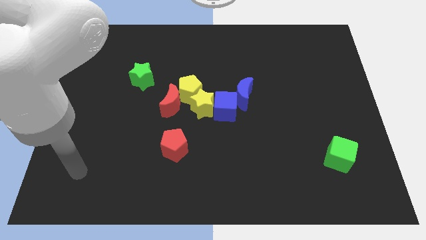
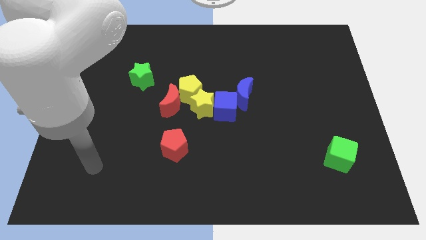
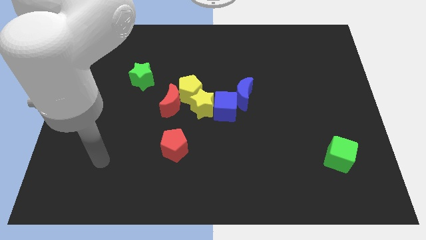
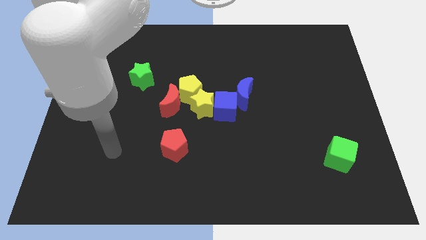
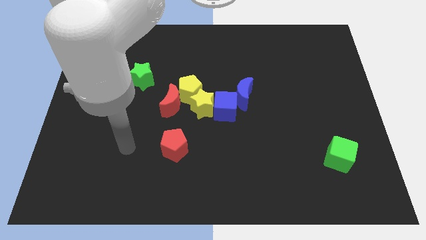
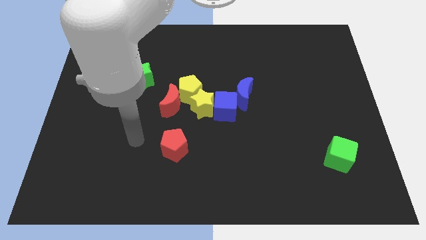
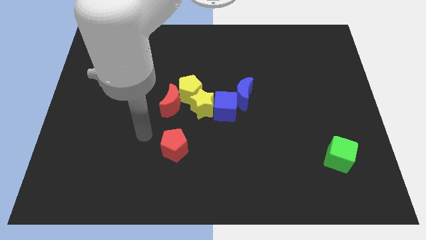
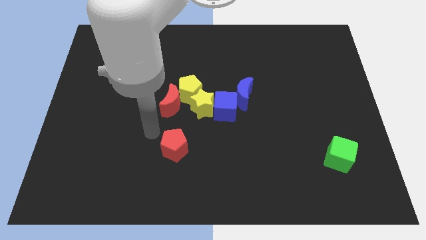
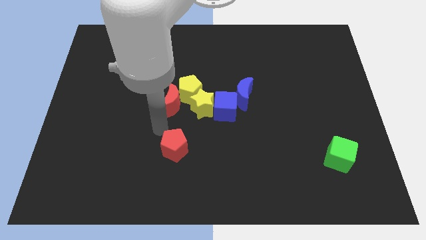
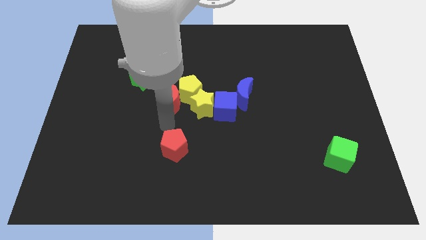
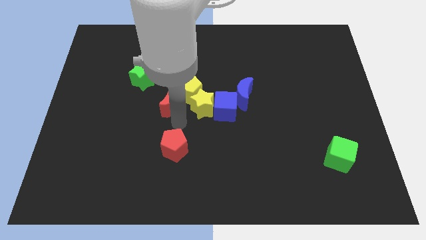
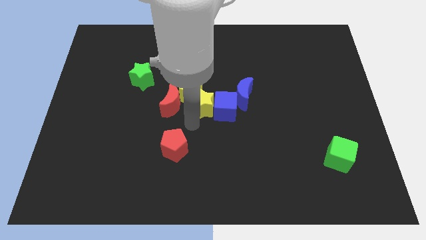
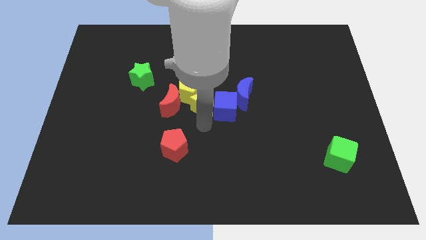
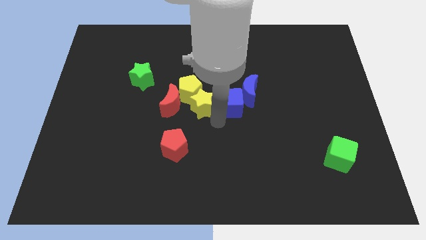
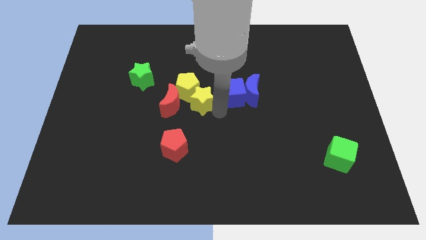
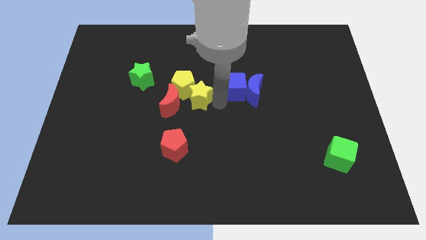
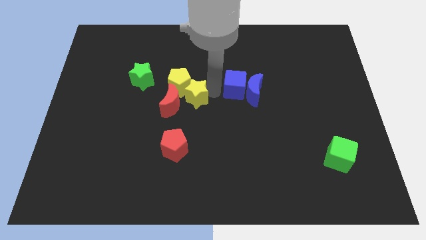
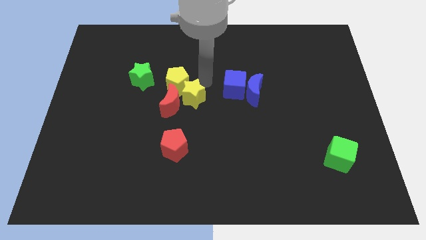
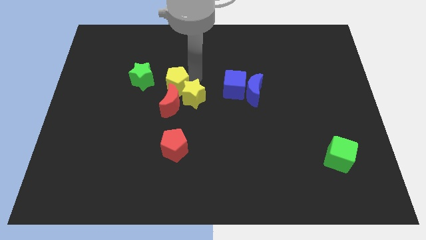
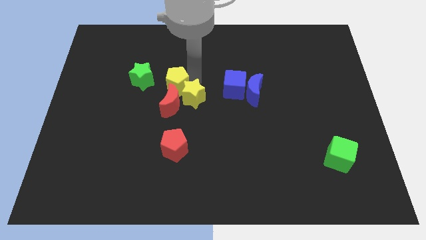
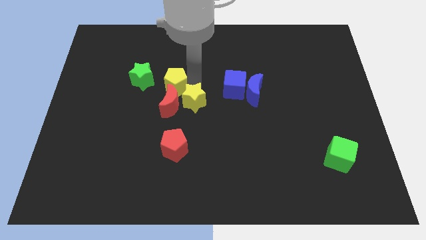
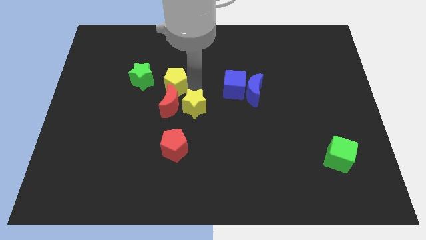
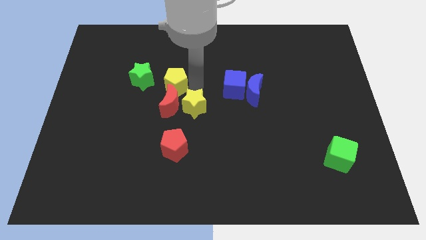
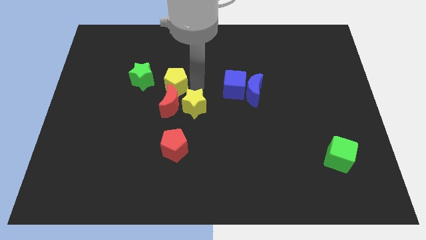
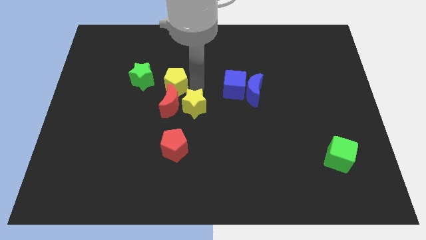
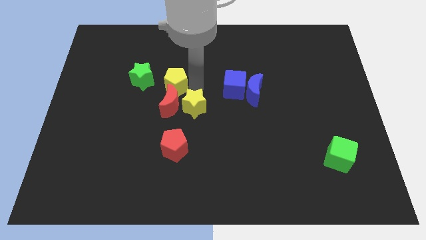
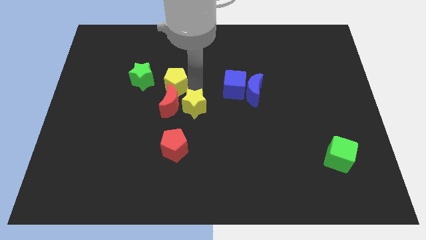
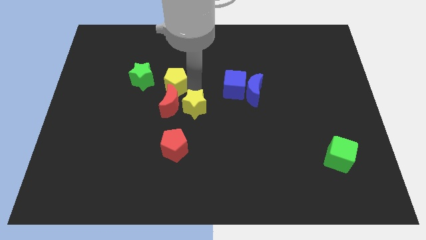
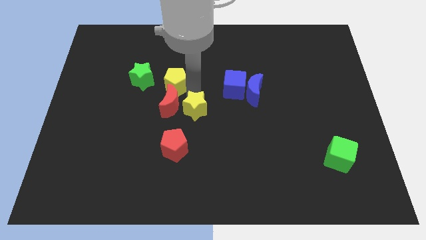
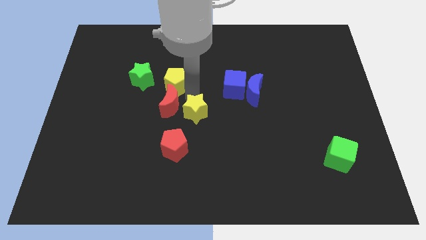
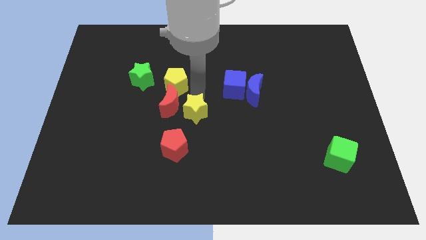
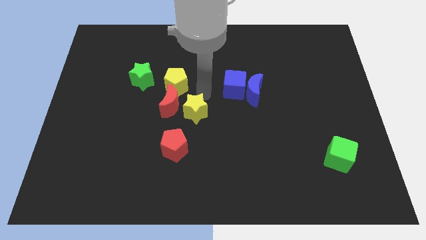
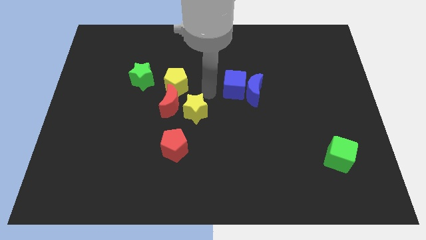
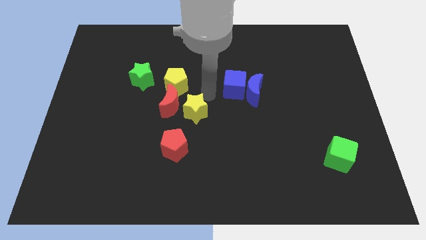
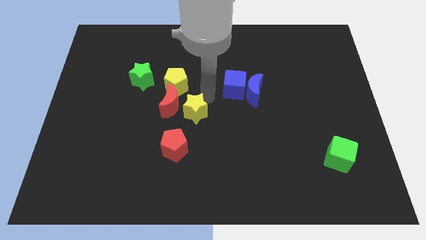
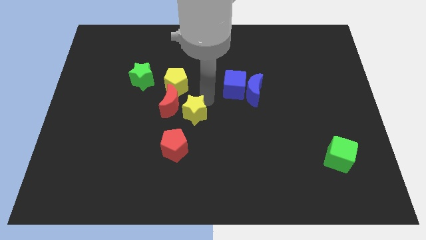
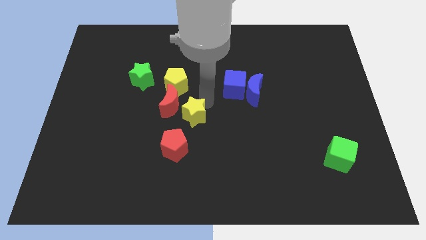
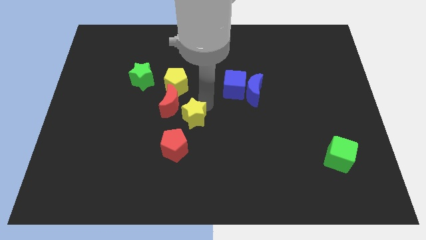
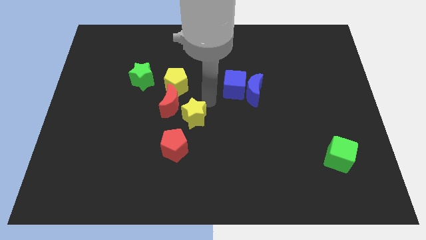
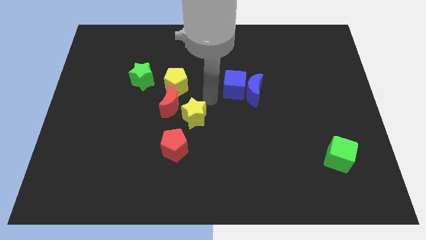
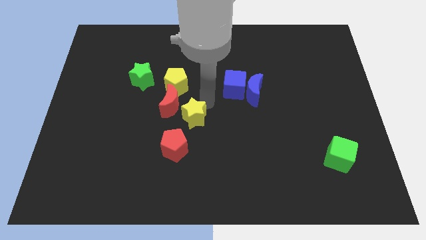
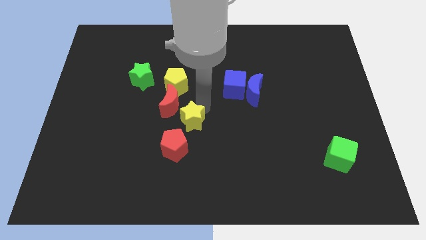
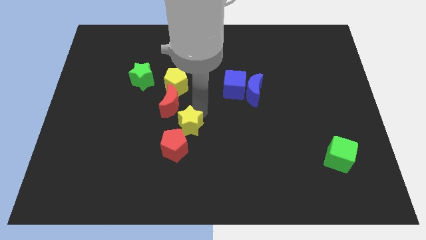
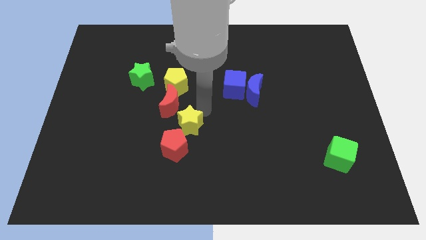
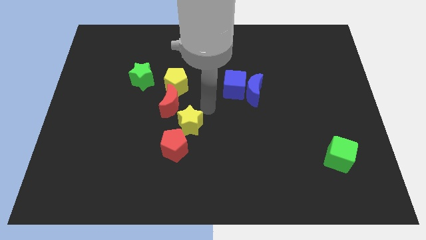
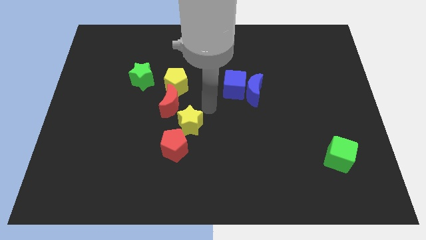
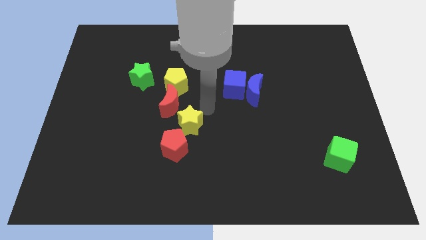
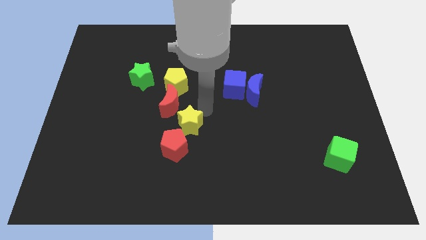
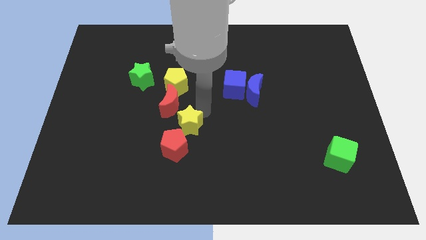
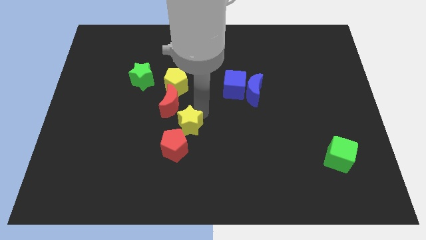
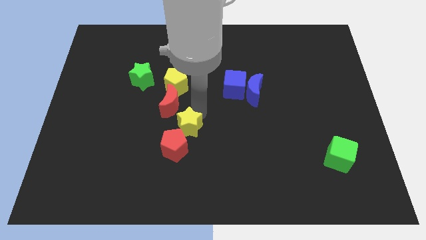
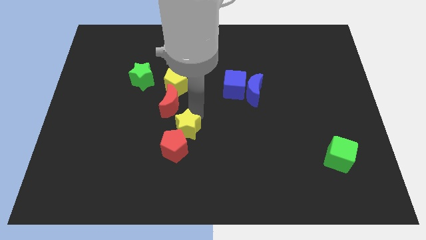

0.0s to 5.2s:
move the yellow star close to the red pentagon

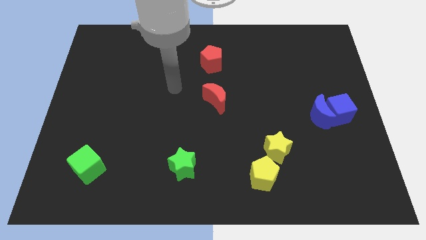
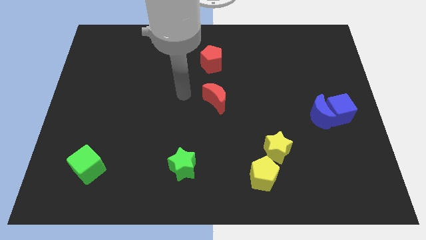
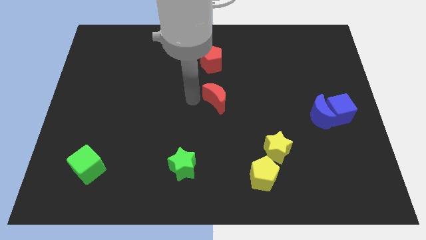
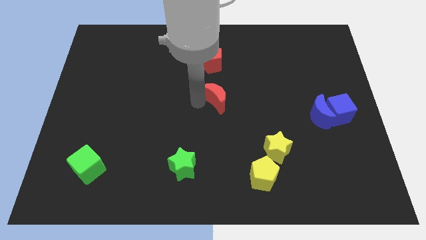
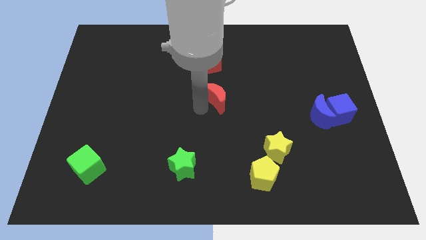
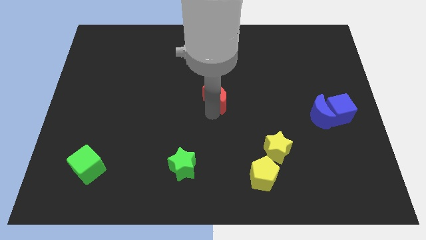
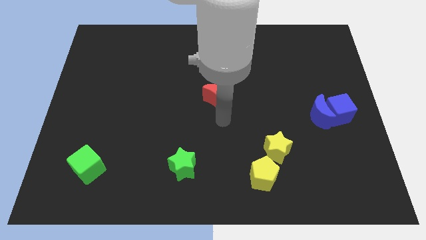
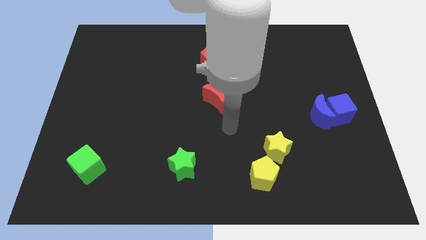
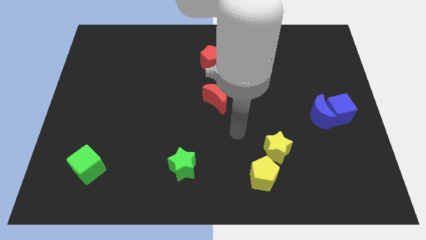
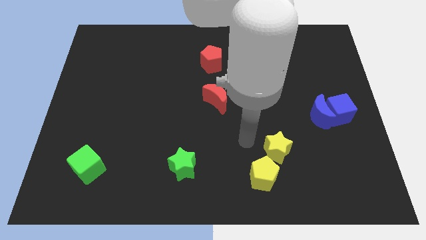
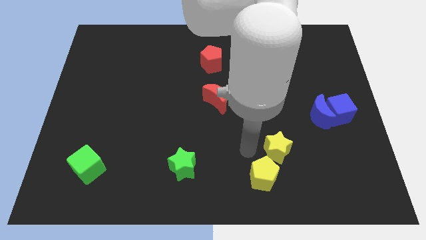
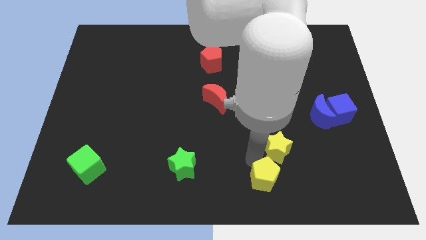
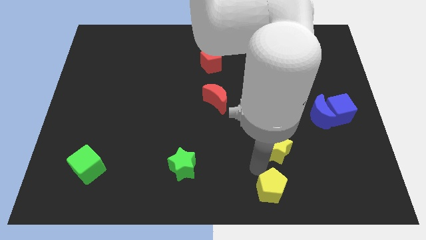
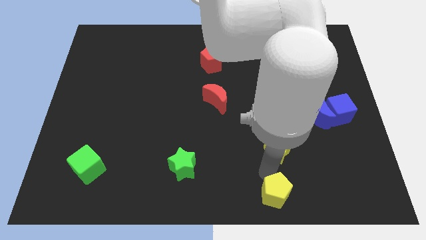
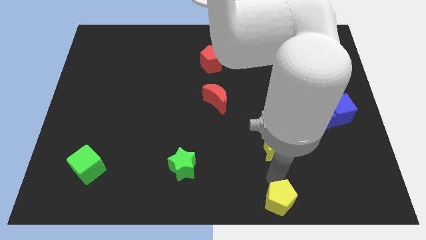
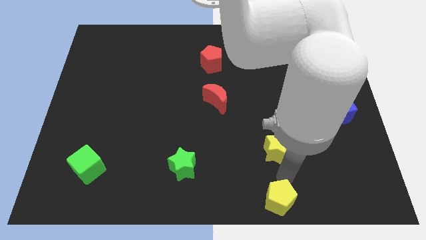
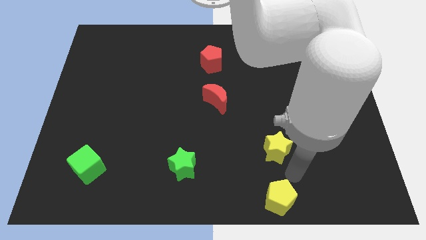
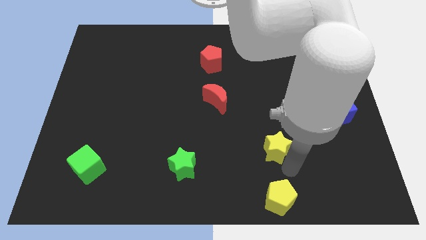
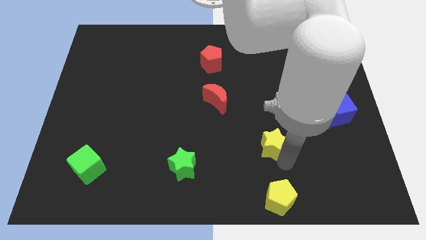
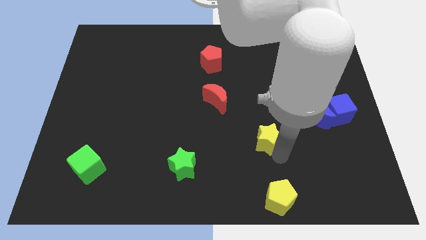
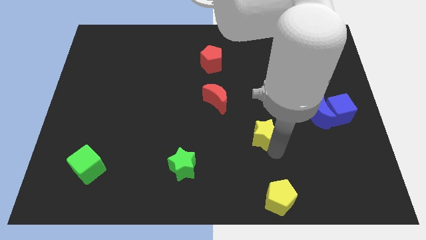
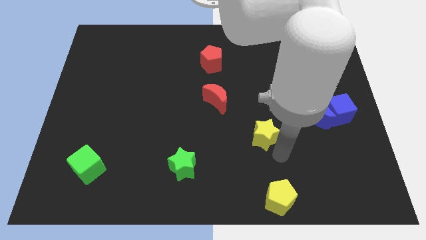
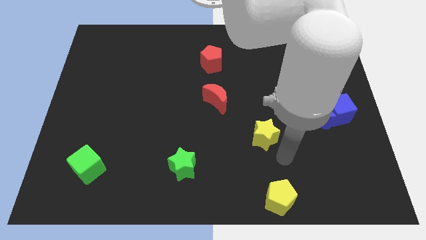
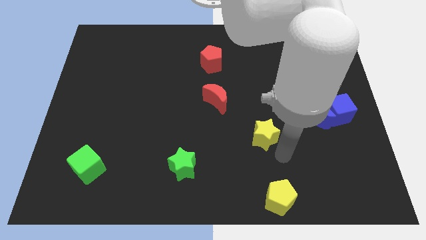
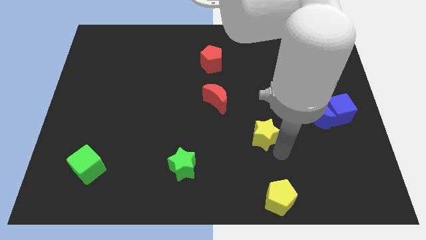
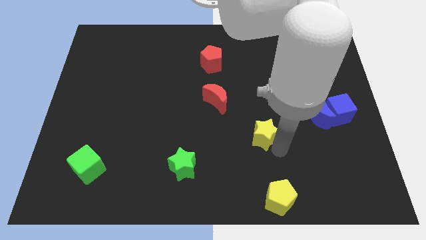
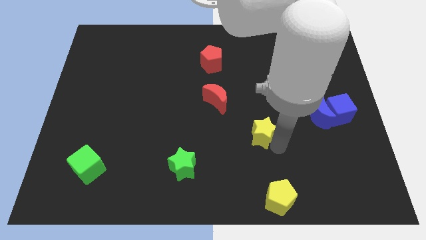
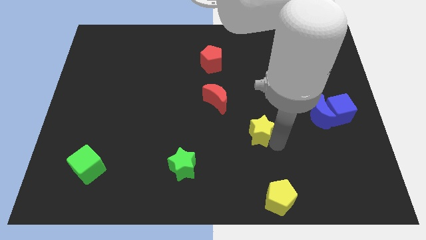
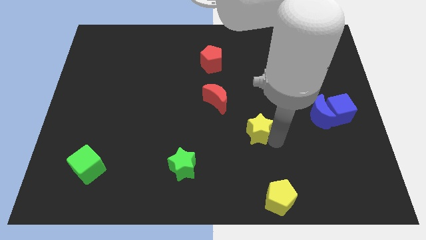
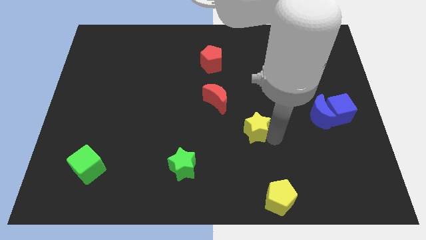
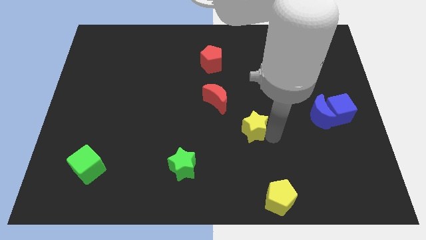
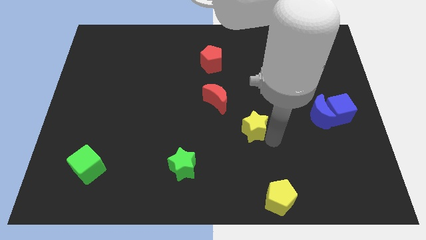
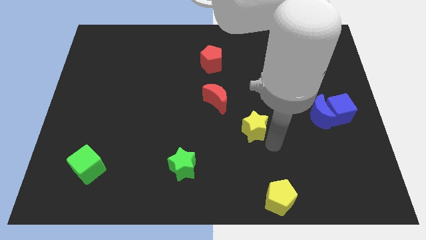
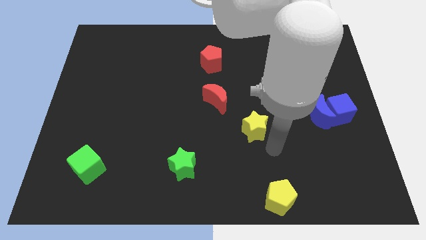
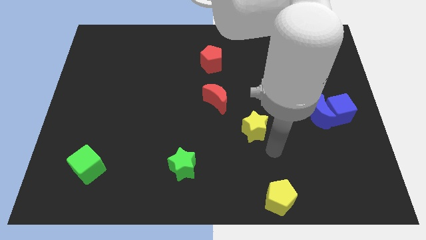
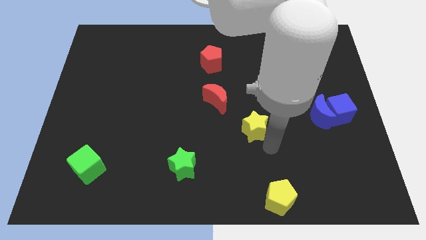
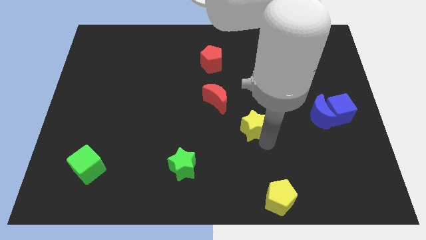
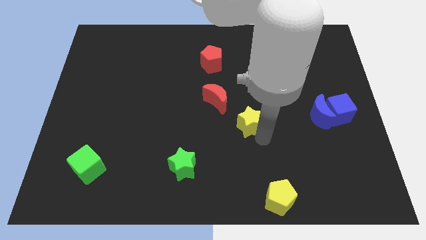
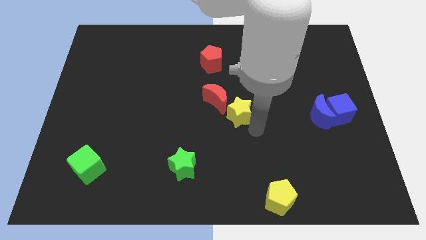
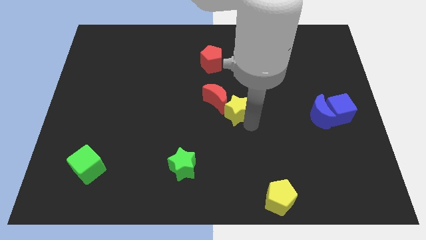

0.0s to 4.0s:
move the yellow star towards the red moon
